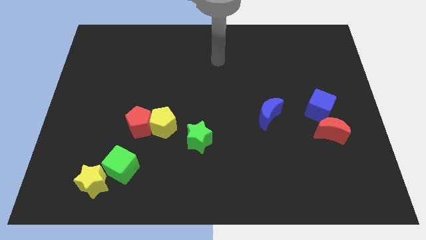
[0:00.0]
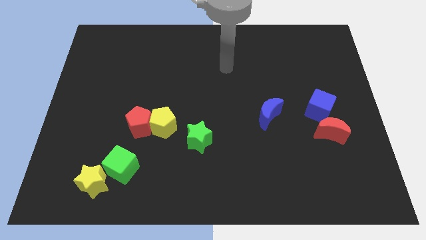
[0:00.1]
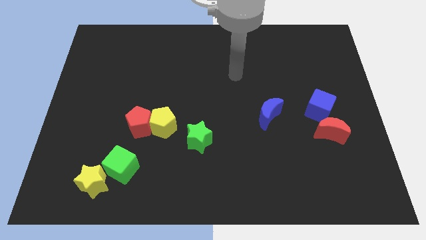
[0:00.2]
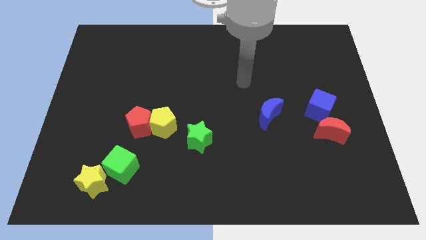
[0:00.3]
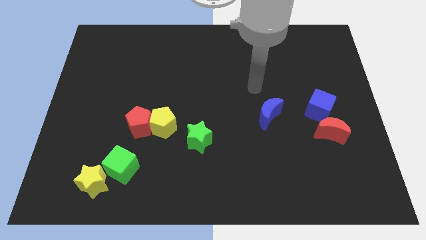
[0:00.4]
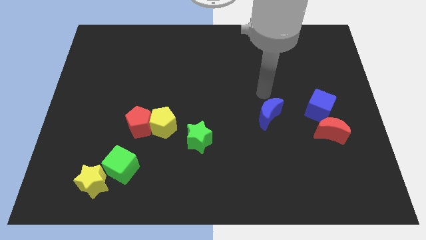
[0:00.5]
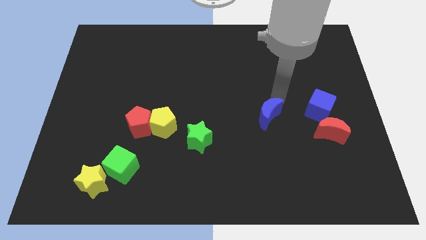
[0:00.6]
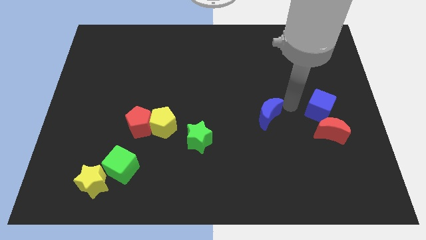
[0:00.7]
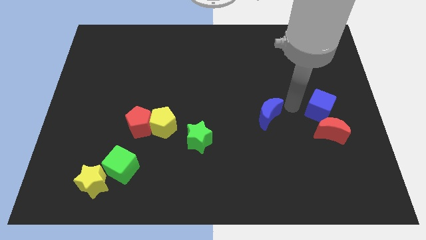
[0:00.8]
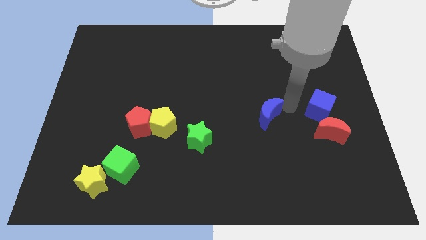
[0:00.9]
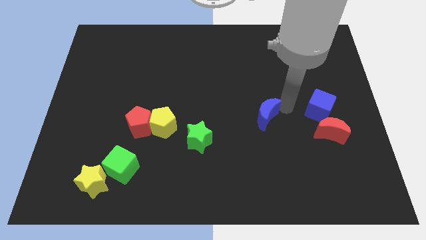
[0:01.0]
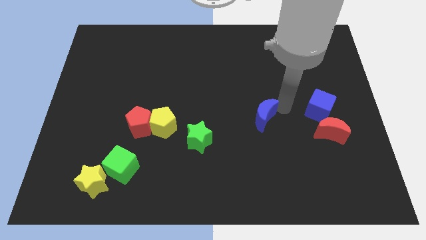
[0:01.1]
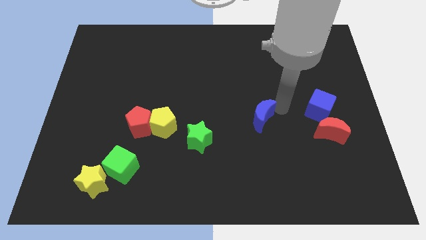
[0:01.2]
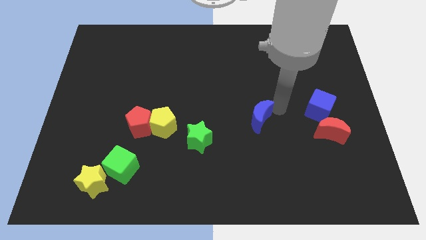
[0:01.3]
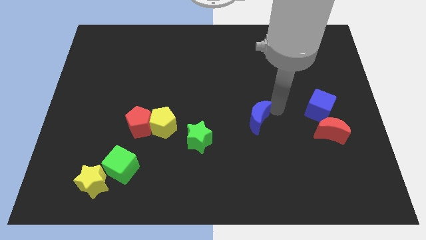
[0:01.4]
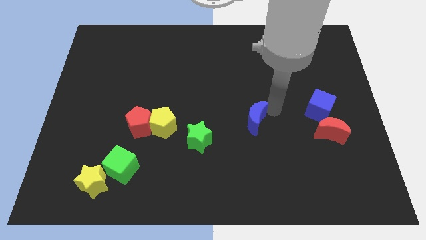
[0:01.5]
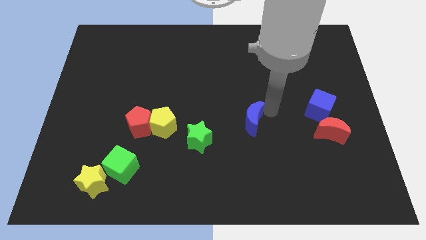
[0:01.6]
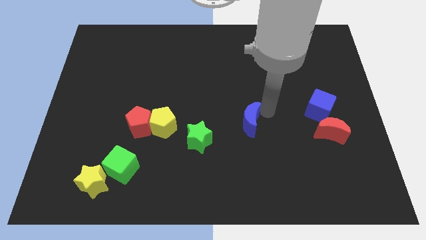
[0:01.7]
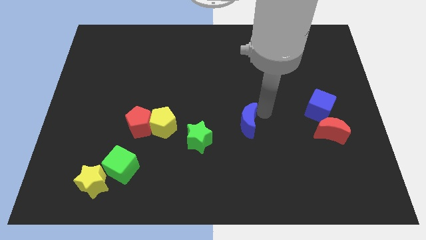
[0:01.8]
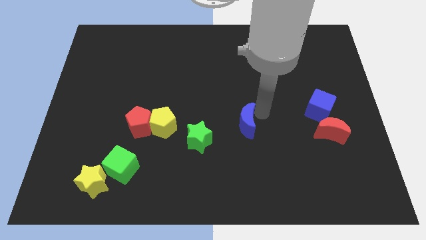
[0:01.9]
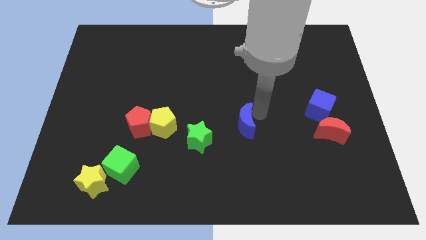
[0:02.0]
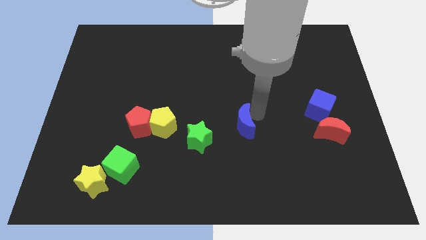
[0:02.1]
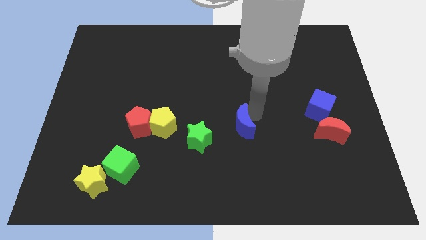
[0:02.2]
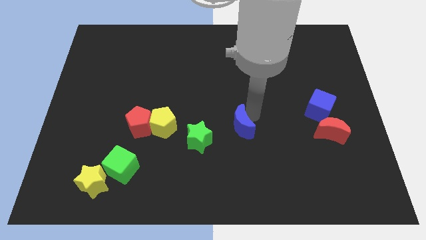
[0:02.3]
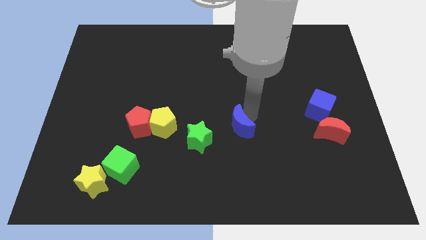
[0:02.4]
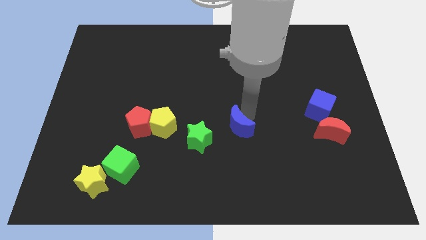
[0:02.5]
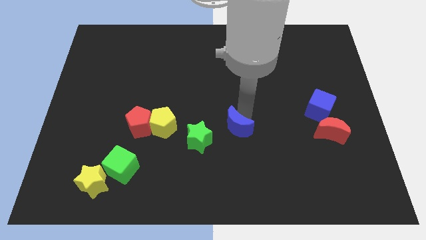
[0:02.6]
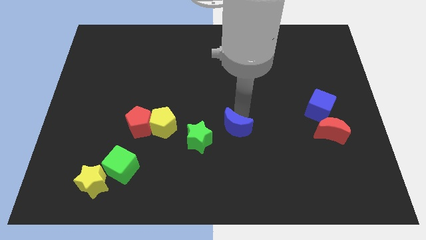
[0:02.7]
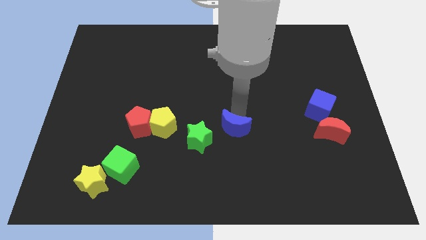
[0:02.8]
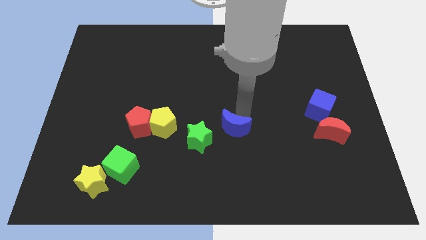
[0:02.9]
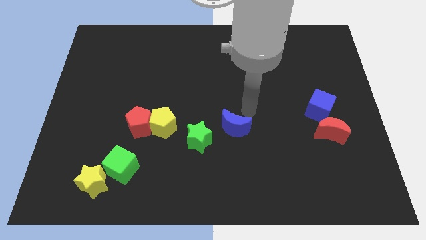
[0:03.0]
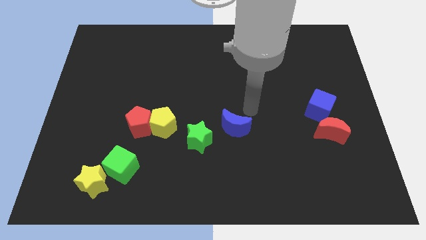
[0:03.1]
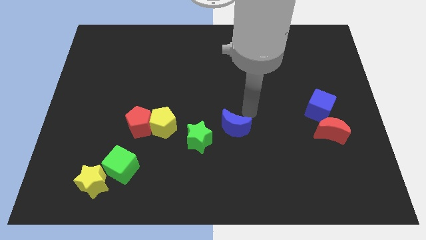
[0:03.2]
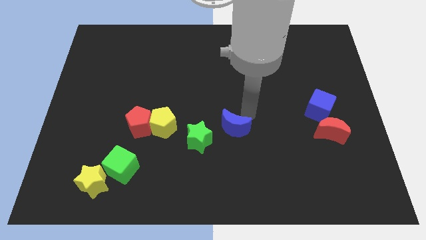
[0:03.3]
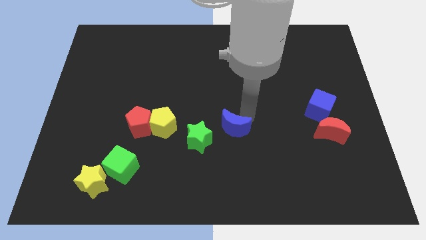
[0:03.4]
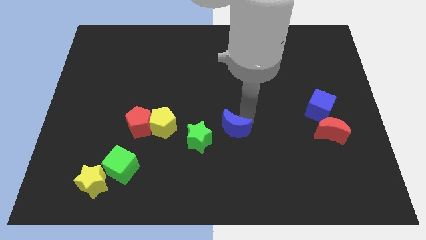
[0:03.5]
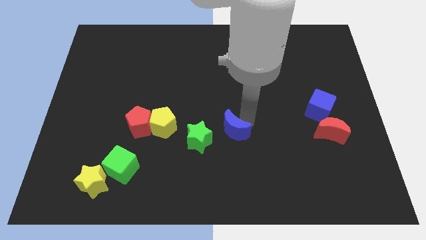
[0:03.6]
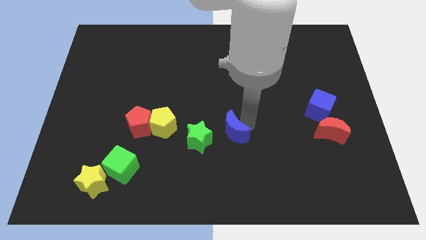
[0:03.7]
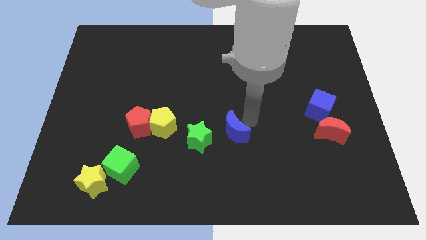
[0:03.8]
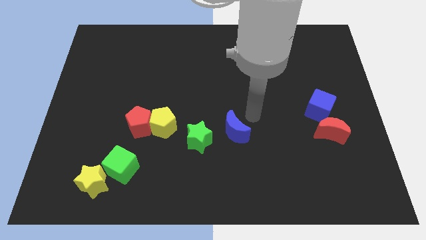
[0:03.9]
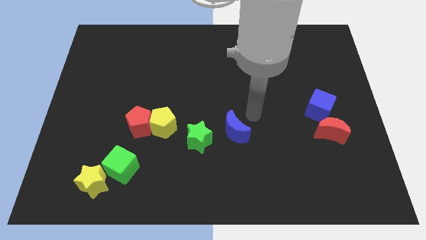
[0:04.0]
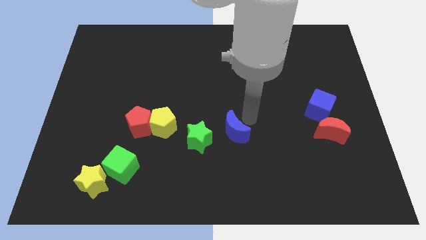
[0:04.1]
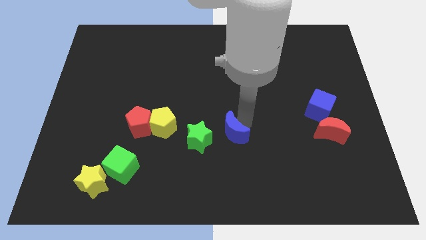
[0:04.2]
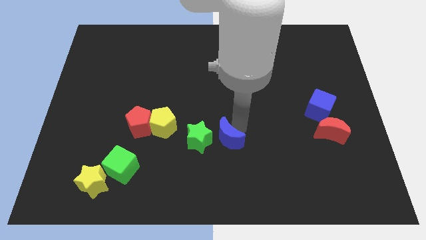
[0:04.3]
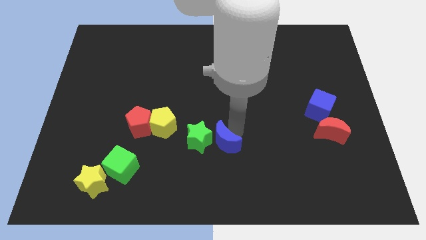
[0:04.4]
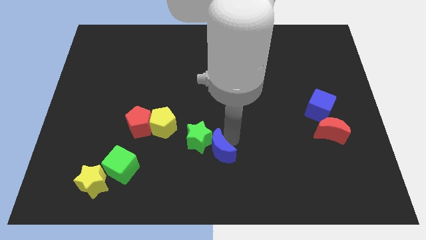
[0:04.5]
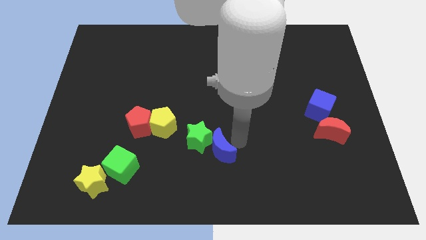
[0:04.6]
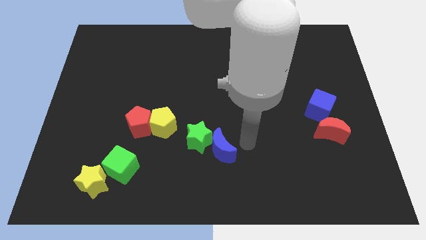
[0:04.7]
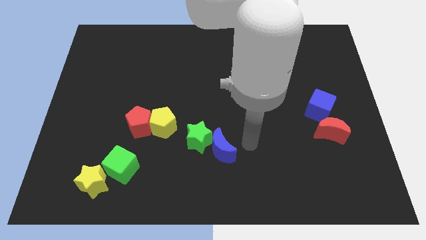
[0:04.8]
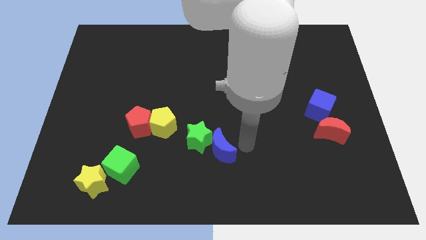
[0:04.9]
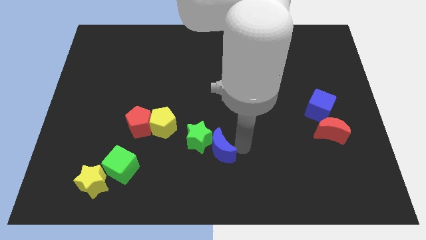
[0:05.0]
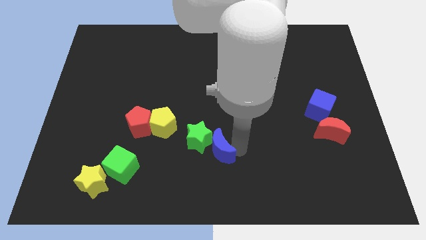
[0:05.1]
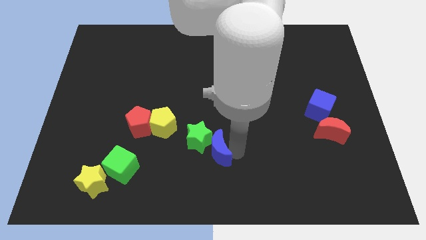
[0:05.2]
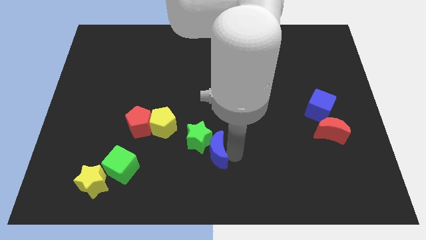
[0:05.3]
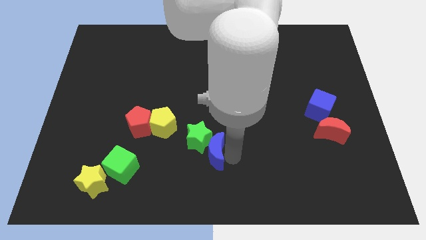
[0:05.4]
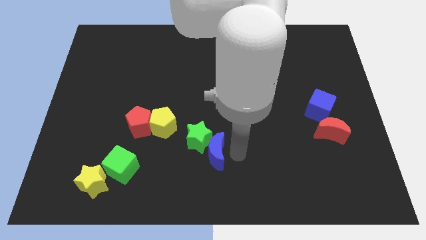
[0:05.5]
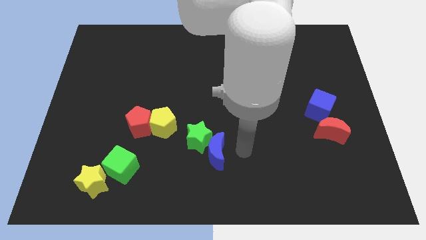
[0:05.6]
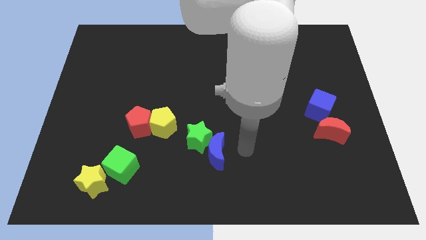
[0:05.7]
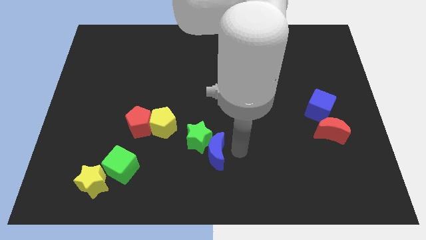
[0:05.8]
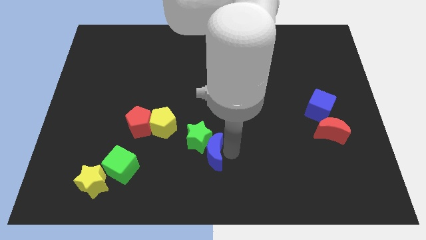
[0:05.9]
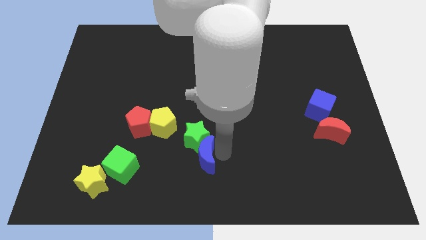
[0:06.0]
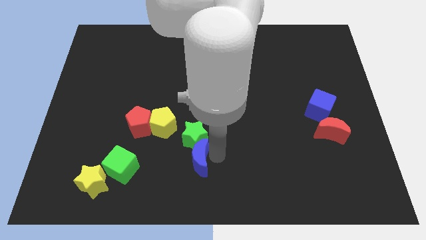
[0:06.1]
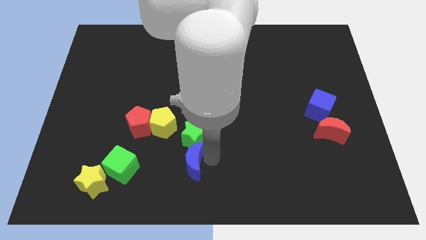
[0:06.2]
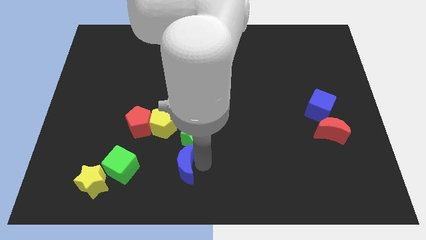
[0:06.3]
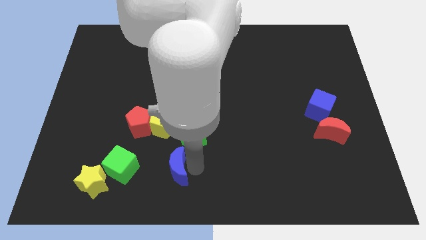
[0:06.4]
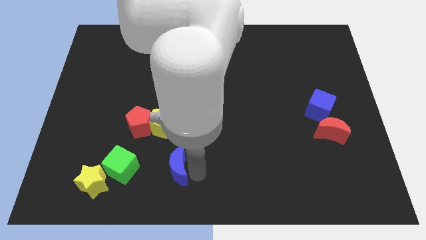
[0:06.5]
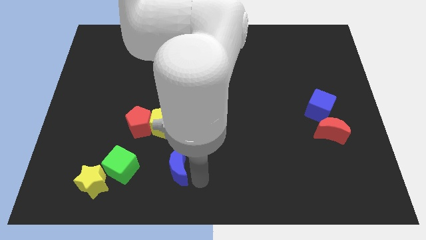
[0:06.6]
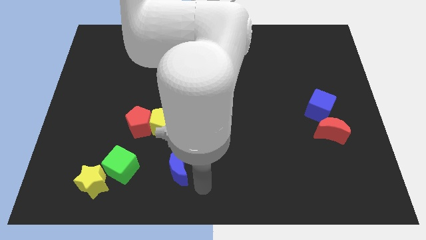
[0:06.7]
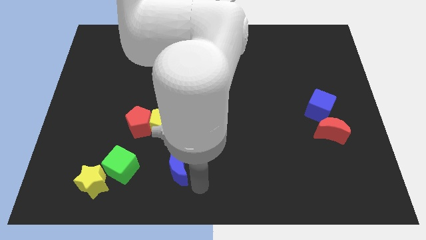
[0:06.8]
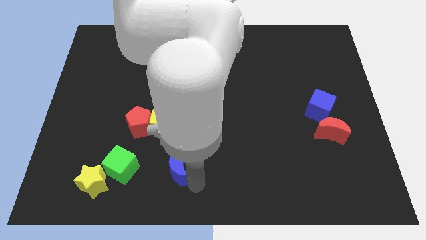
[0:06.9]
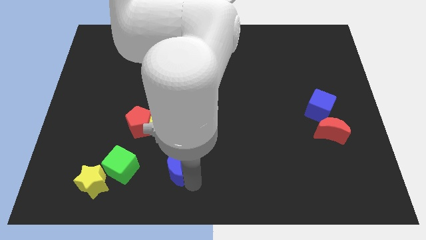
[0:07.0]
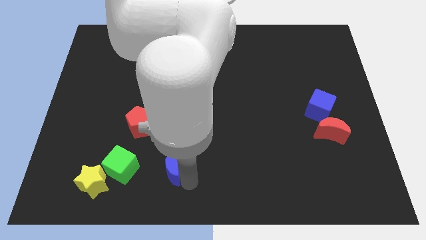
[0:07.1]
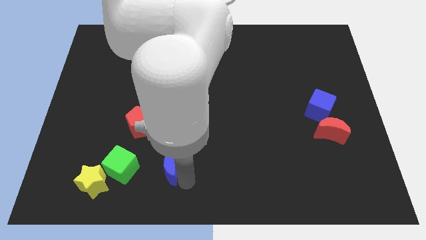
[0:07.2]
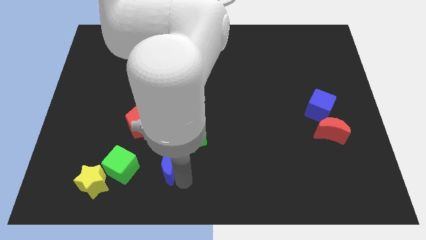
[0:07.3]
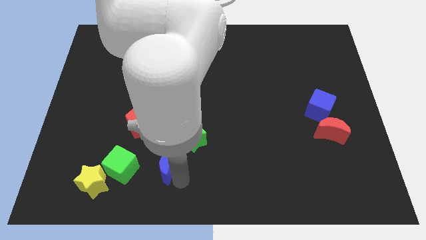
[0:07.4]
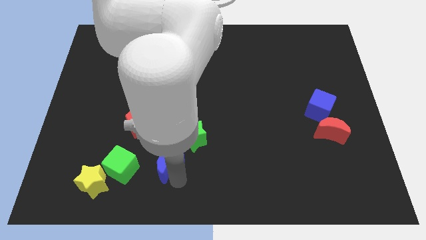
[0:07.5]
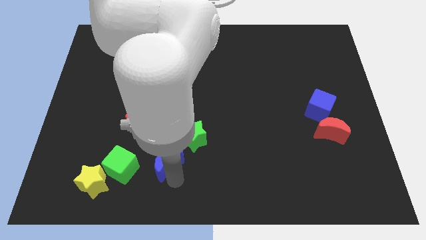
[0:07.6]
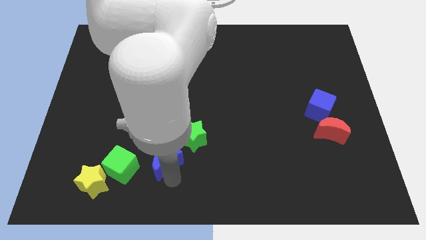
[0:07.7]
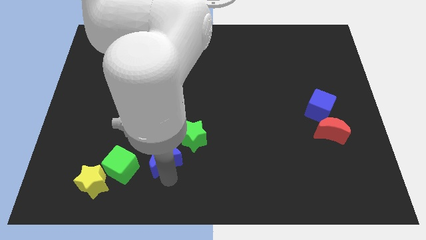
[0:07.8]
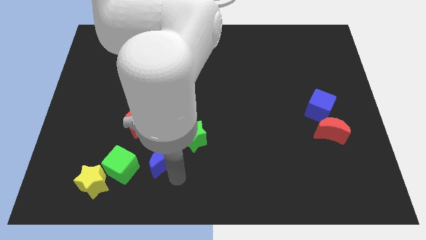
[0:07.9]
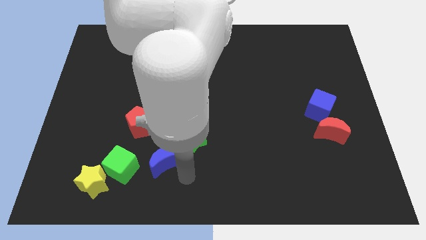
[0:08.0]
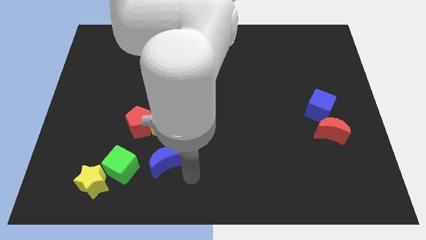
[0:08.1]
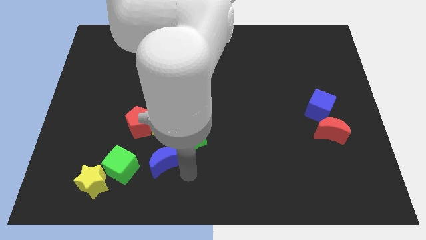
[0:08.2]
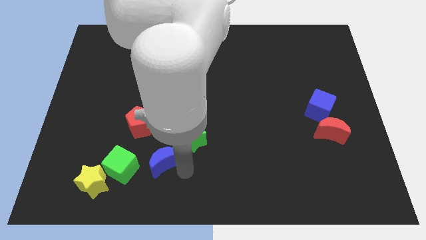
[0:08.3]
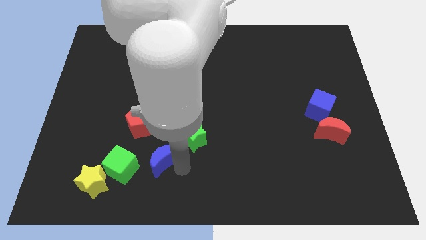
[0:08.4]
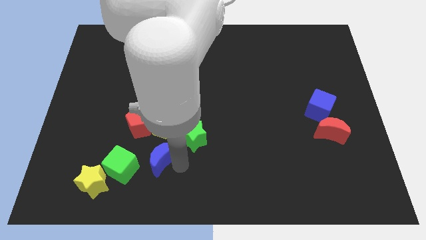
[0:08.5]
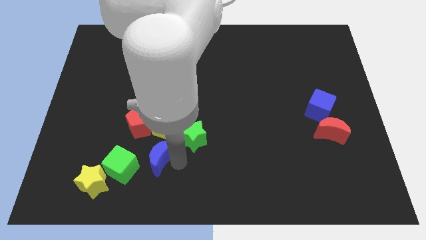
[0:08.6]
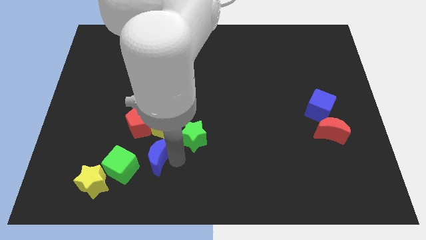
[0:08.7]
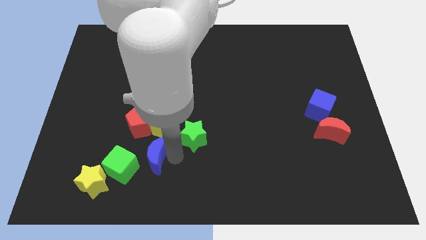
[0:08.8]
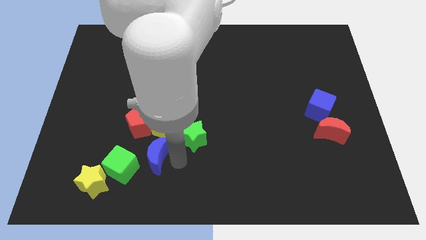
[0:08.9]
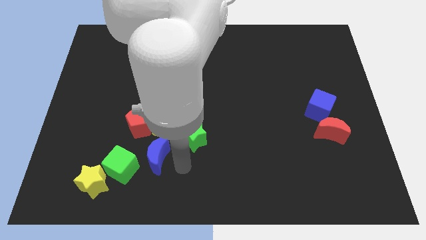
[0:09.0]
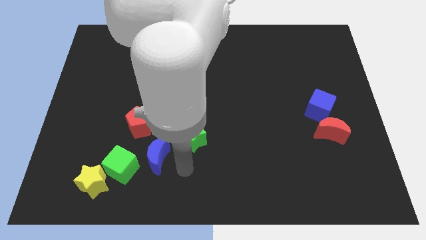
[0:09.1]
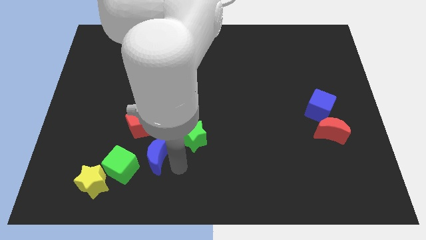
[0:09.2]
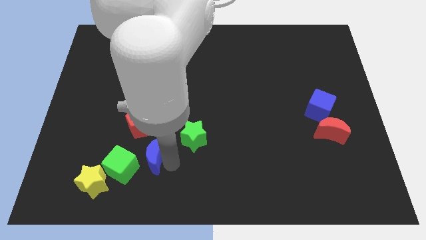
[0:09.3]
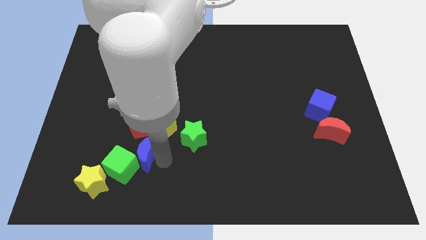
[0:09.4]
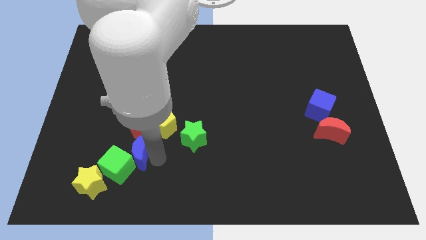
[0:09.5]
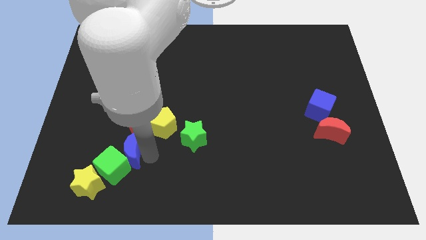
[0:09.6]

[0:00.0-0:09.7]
slide the blue moon diagonally down and to the left of the red pentagon
